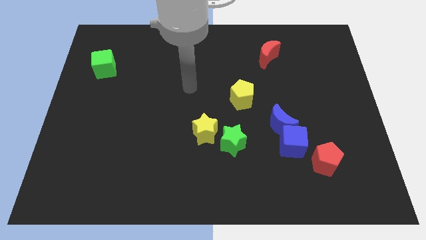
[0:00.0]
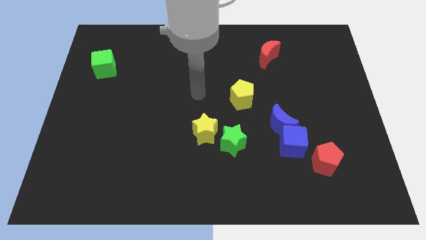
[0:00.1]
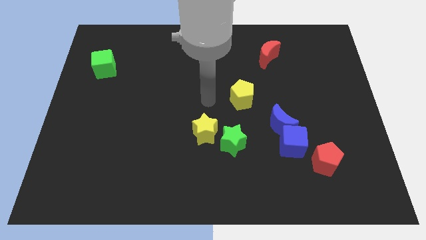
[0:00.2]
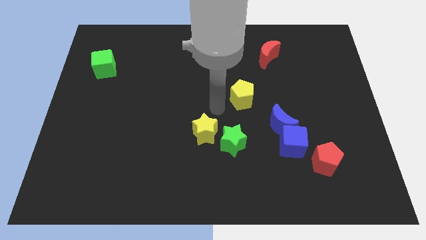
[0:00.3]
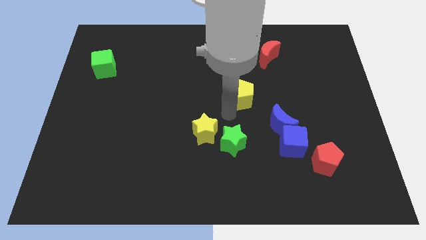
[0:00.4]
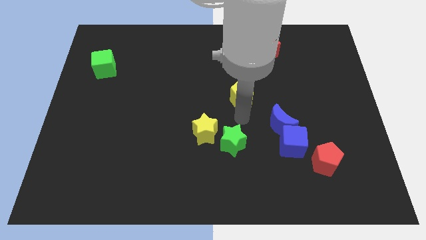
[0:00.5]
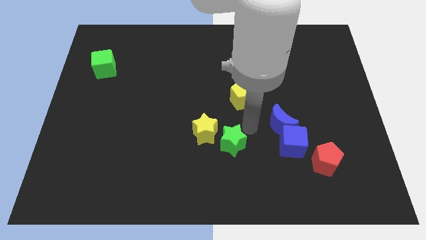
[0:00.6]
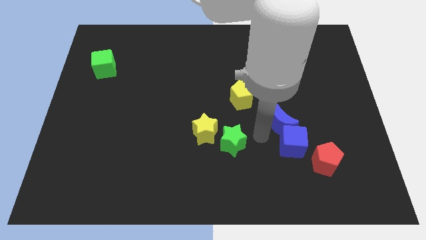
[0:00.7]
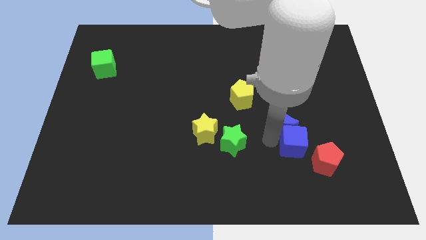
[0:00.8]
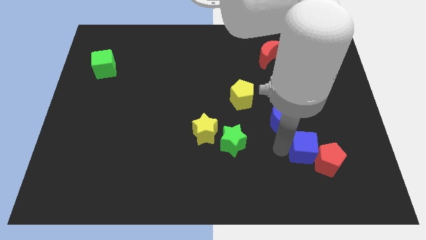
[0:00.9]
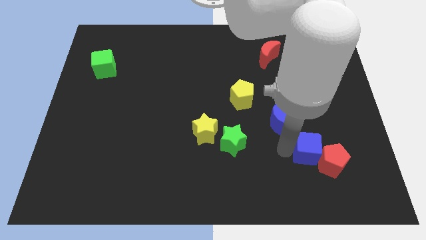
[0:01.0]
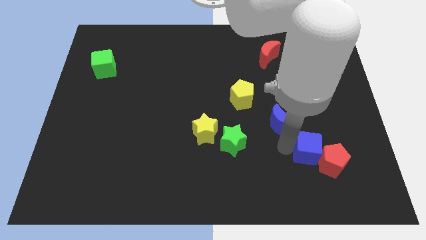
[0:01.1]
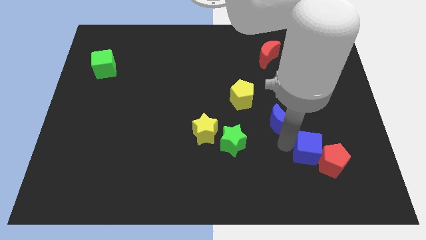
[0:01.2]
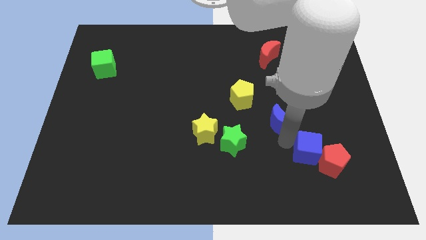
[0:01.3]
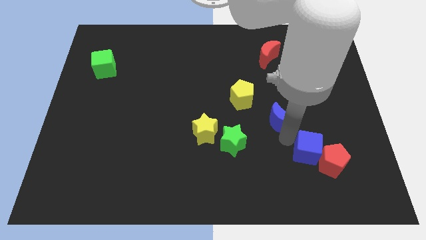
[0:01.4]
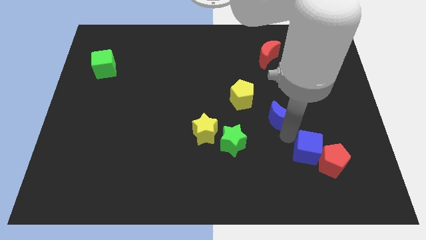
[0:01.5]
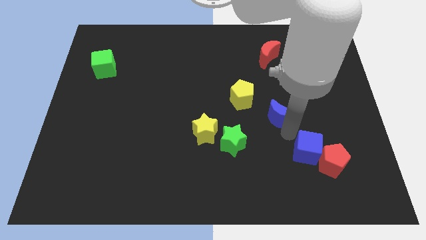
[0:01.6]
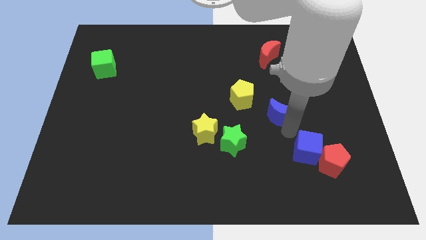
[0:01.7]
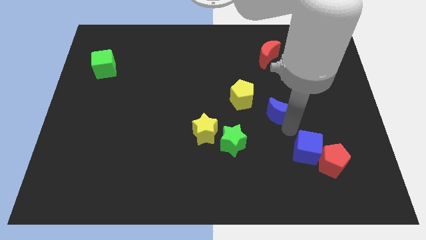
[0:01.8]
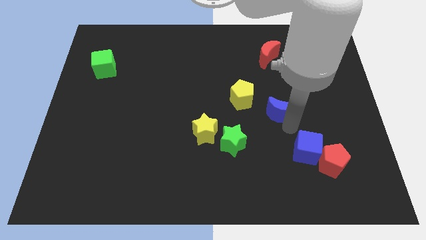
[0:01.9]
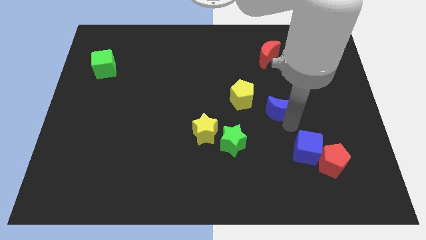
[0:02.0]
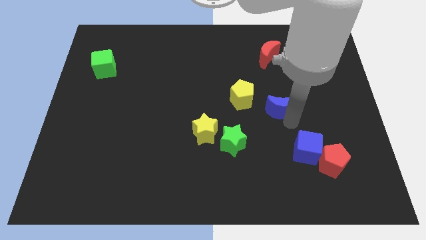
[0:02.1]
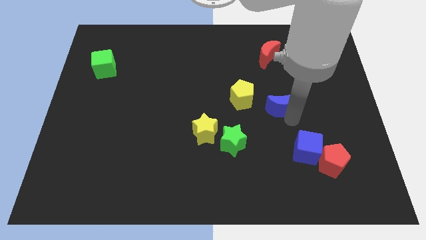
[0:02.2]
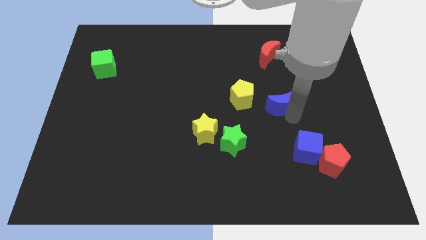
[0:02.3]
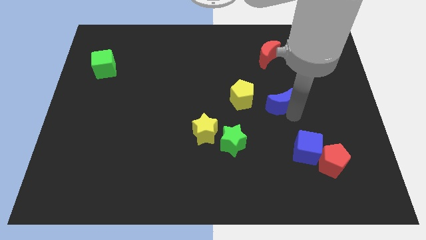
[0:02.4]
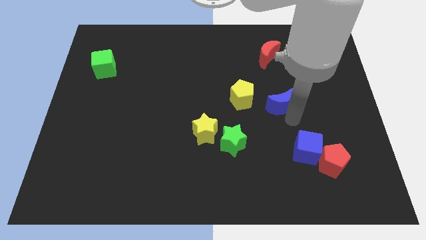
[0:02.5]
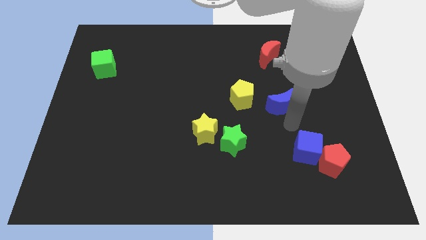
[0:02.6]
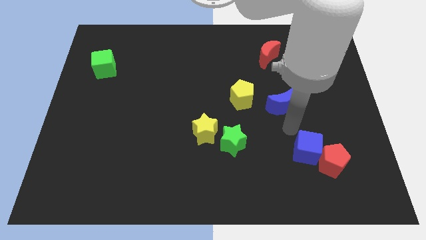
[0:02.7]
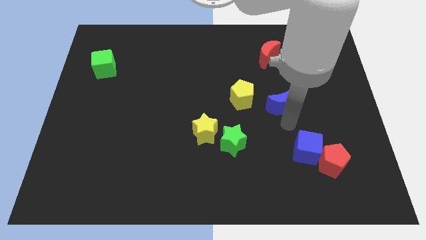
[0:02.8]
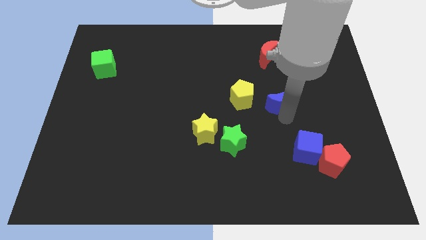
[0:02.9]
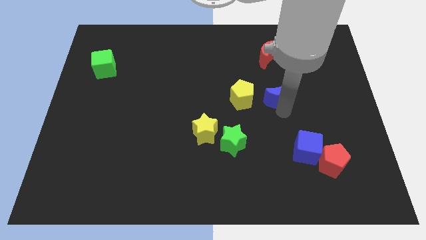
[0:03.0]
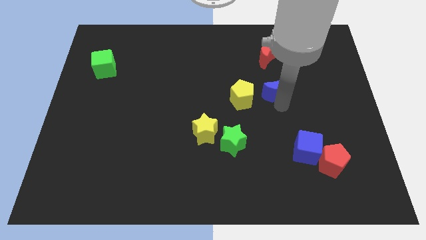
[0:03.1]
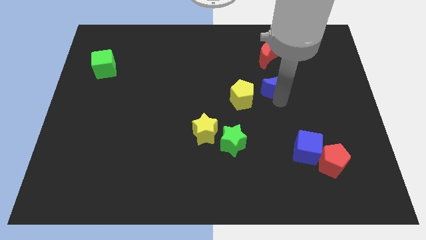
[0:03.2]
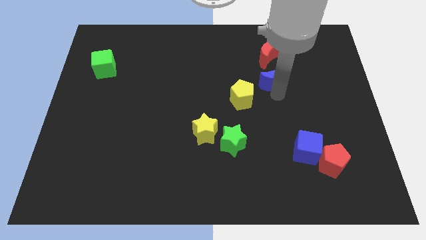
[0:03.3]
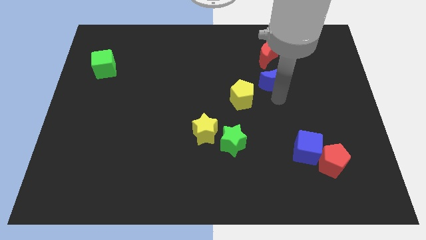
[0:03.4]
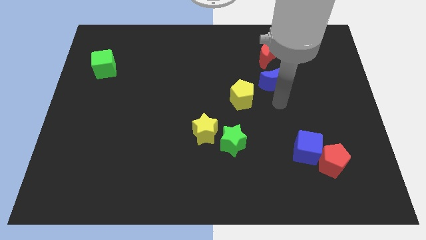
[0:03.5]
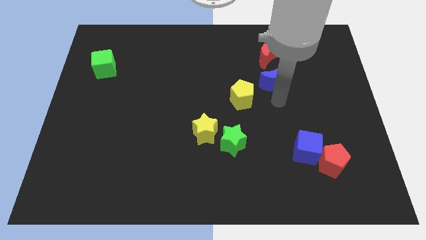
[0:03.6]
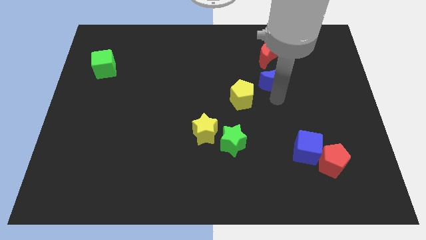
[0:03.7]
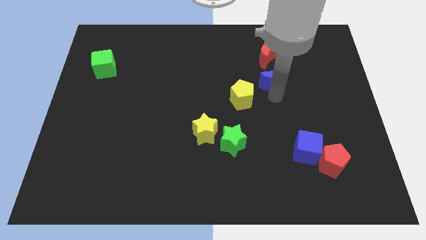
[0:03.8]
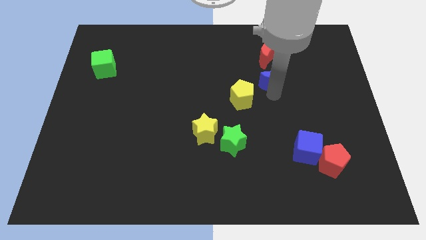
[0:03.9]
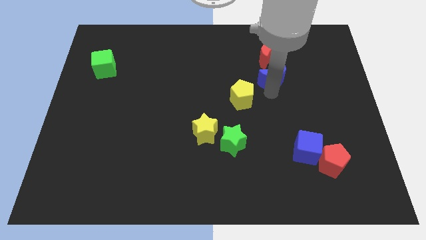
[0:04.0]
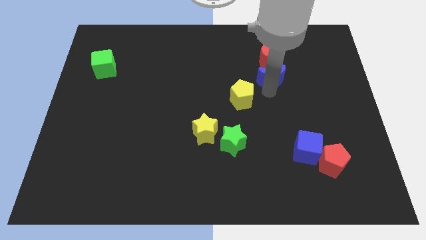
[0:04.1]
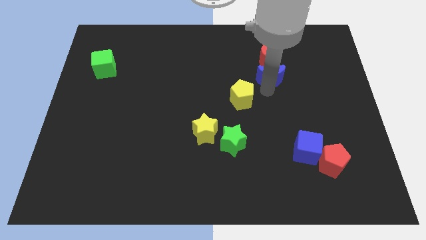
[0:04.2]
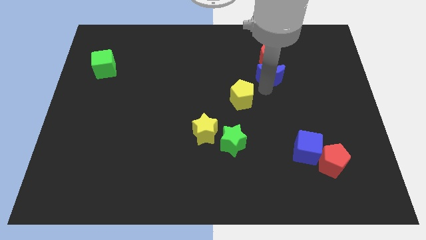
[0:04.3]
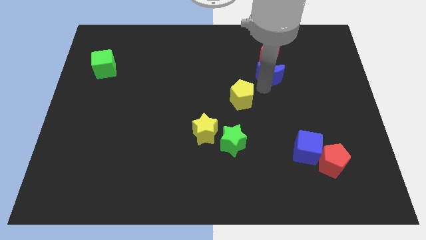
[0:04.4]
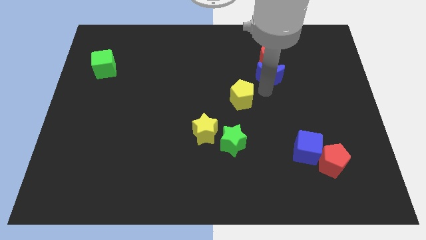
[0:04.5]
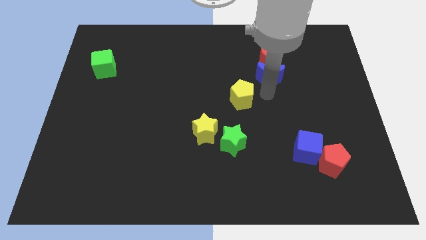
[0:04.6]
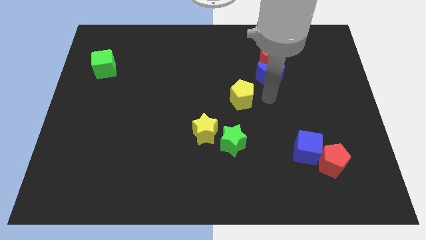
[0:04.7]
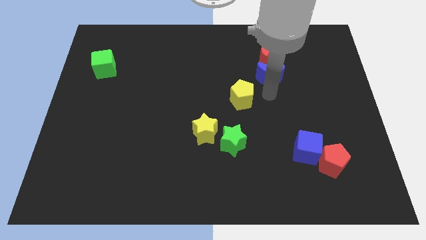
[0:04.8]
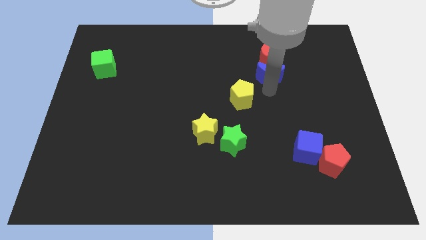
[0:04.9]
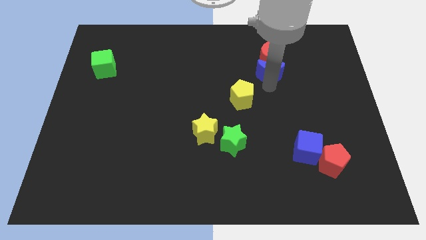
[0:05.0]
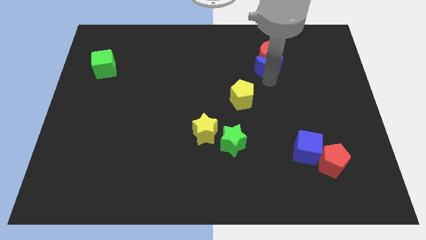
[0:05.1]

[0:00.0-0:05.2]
move the blue moon towards the red moon

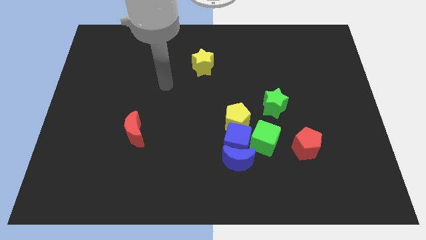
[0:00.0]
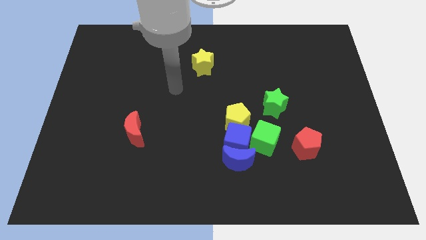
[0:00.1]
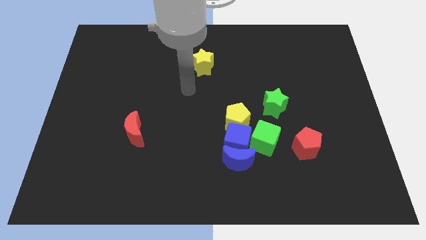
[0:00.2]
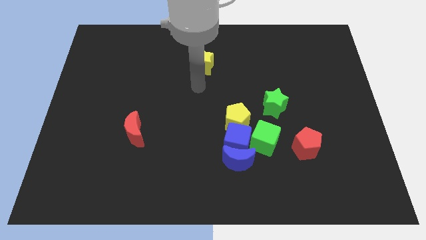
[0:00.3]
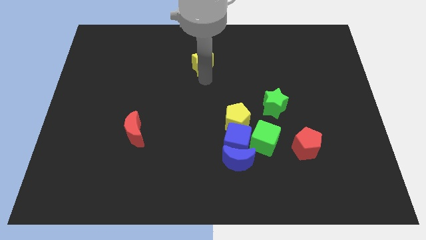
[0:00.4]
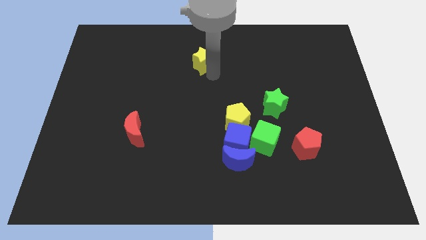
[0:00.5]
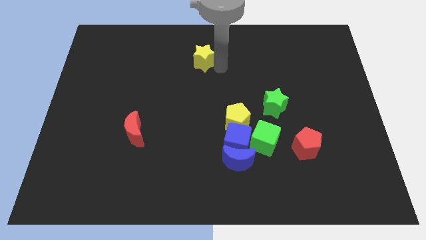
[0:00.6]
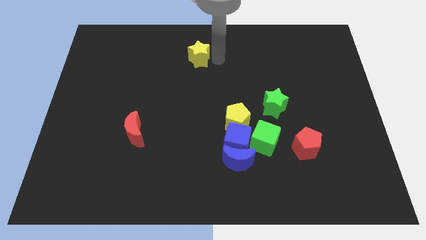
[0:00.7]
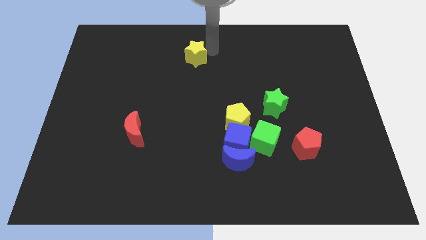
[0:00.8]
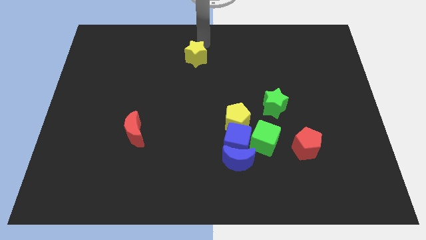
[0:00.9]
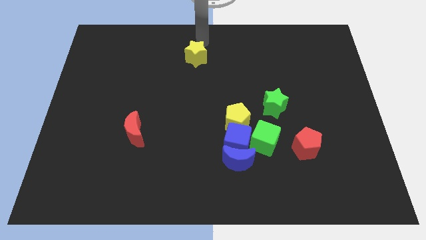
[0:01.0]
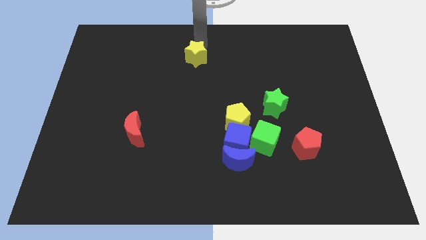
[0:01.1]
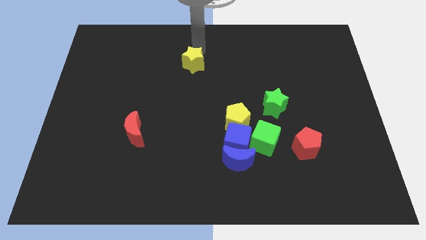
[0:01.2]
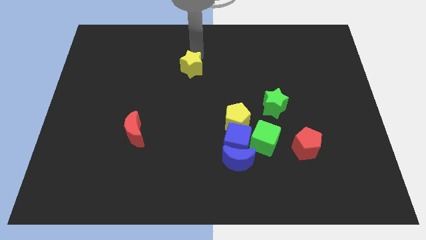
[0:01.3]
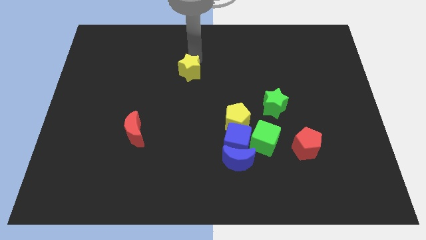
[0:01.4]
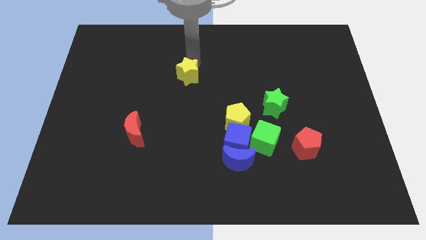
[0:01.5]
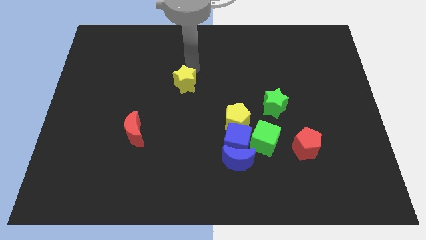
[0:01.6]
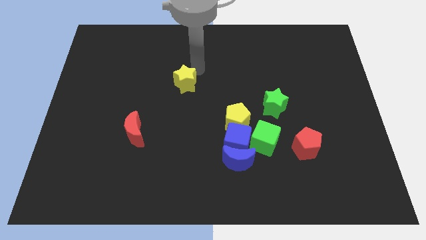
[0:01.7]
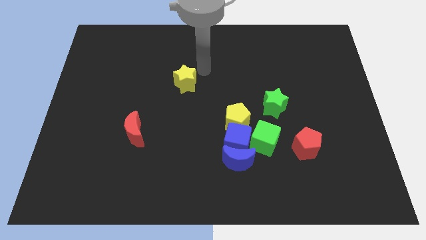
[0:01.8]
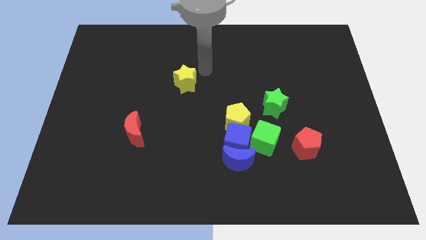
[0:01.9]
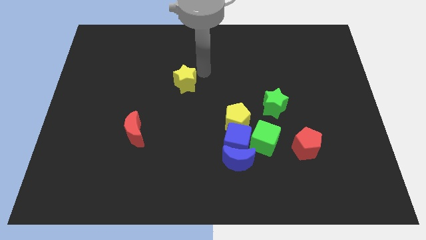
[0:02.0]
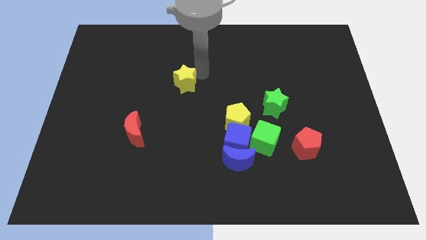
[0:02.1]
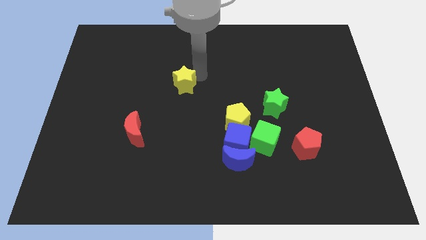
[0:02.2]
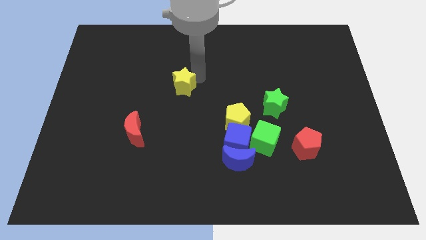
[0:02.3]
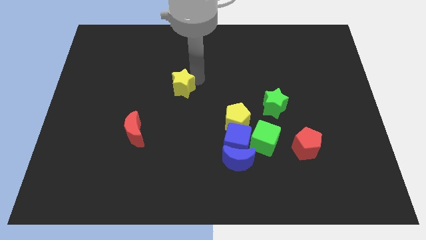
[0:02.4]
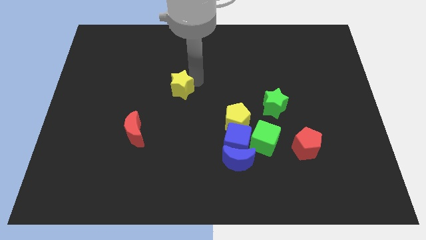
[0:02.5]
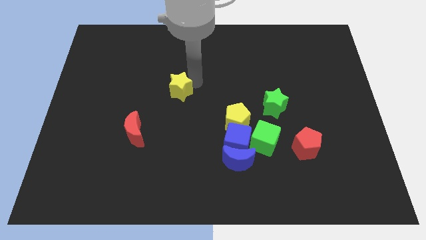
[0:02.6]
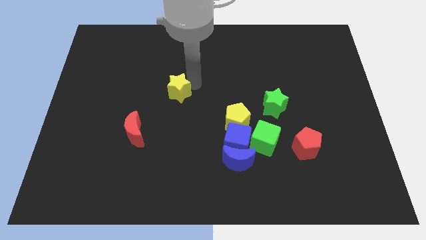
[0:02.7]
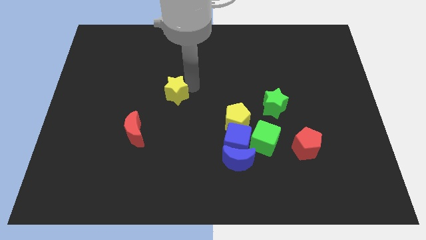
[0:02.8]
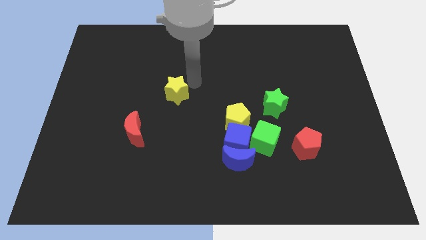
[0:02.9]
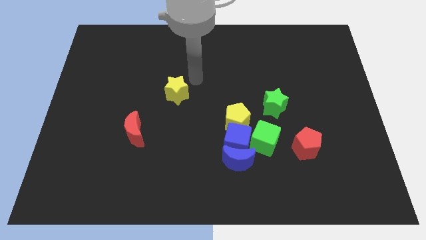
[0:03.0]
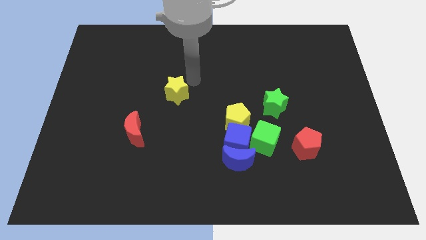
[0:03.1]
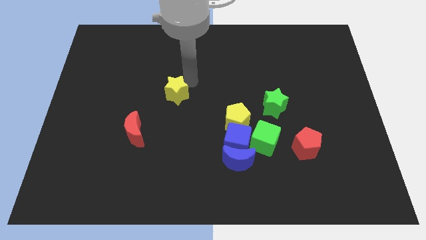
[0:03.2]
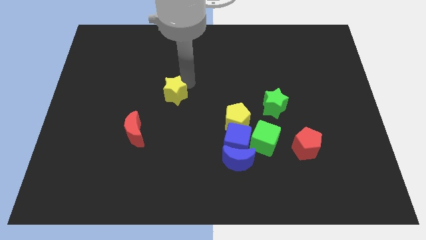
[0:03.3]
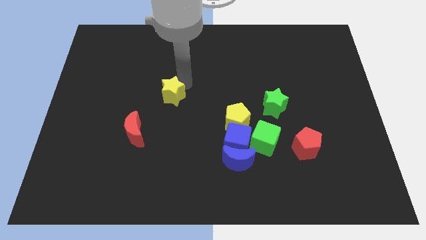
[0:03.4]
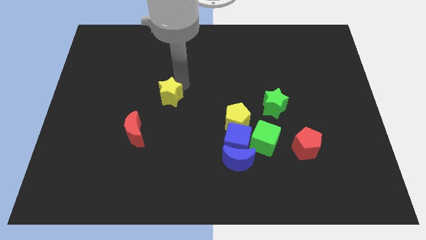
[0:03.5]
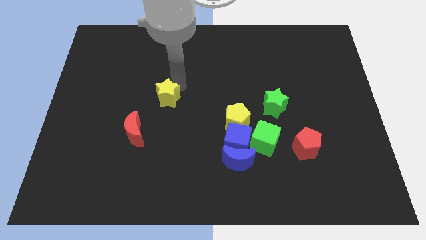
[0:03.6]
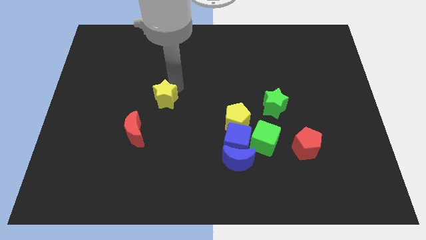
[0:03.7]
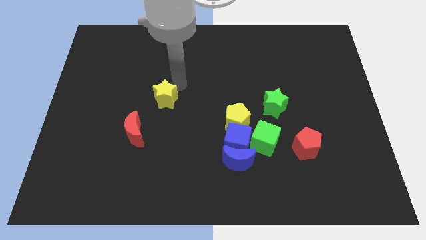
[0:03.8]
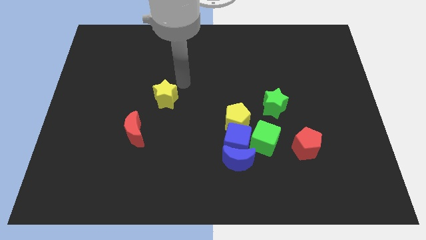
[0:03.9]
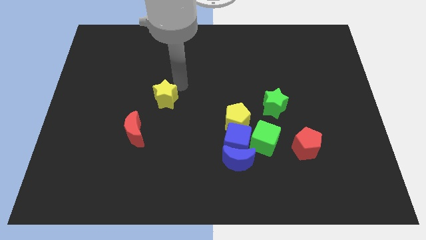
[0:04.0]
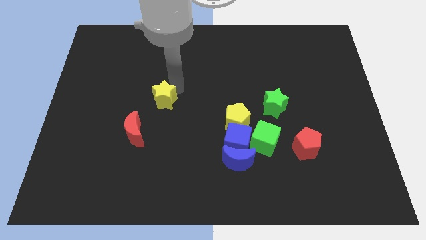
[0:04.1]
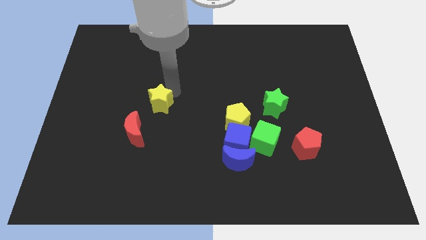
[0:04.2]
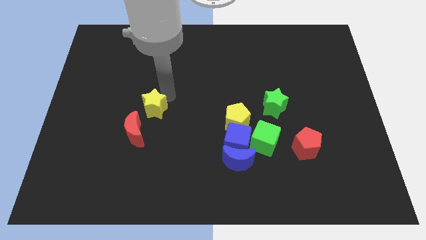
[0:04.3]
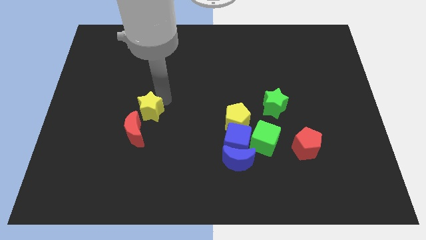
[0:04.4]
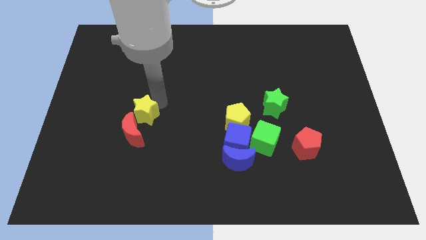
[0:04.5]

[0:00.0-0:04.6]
move the yellow star next to the red moon
